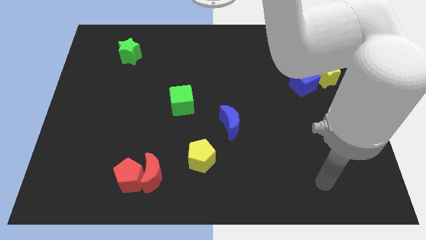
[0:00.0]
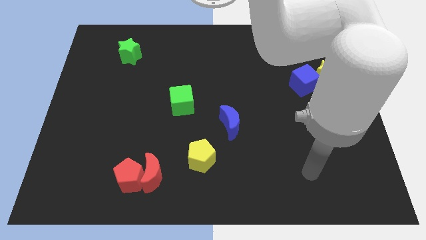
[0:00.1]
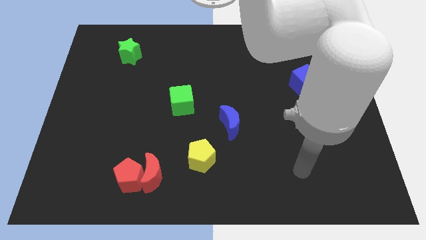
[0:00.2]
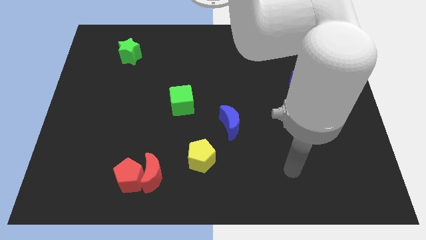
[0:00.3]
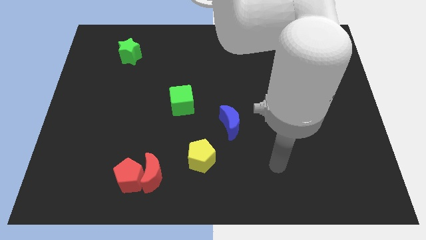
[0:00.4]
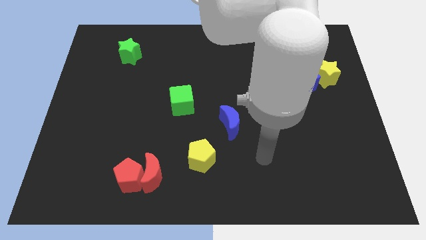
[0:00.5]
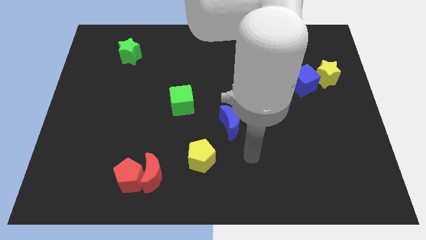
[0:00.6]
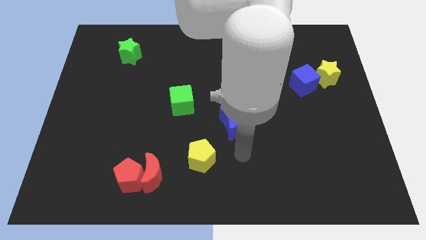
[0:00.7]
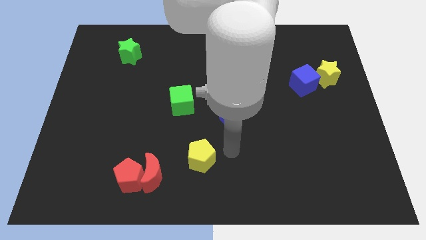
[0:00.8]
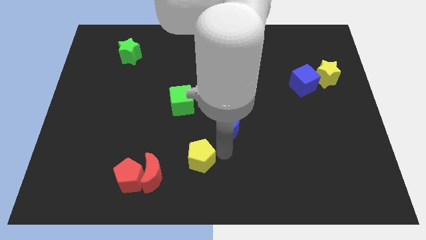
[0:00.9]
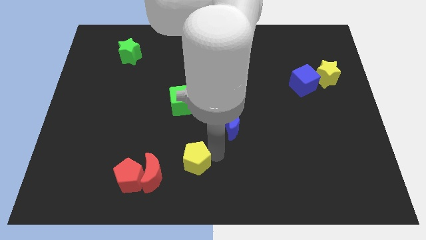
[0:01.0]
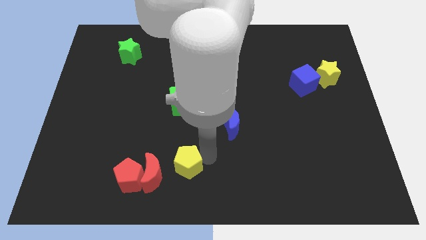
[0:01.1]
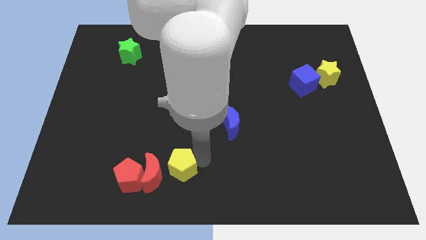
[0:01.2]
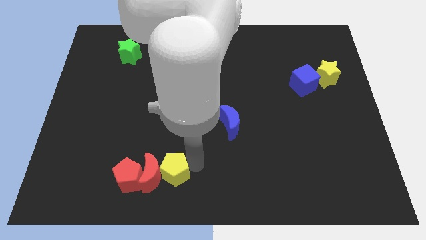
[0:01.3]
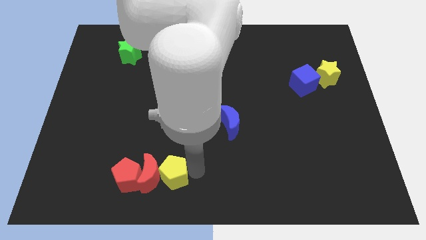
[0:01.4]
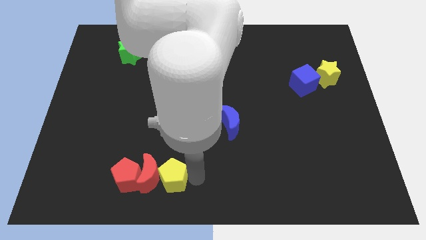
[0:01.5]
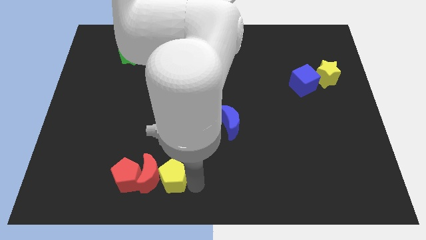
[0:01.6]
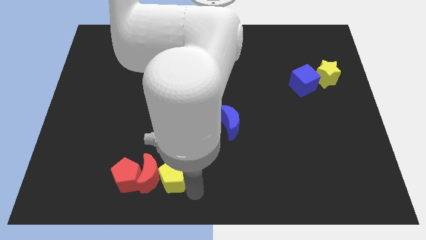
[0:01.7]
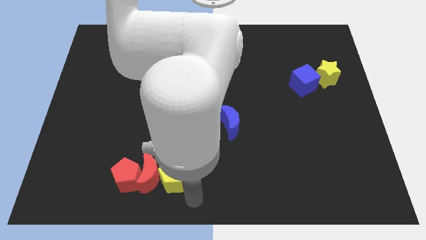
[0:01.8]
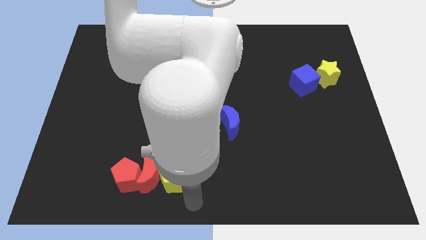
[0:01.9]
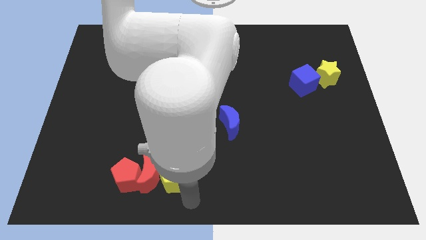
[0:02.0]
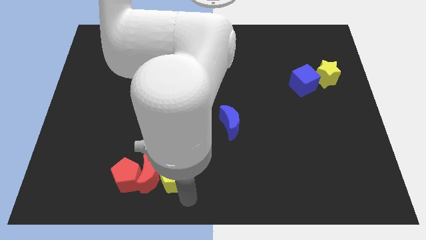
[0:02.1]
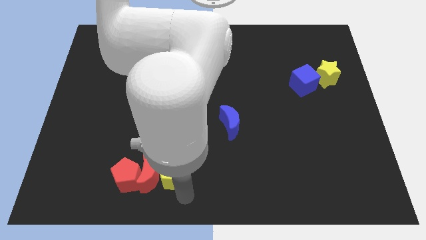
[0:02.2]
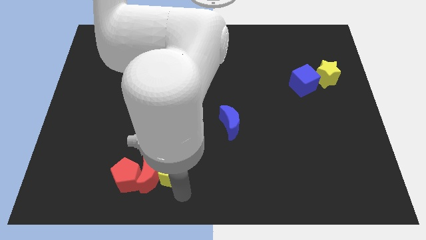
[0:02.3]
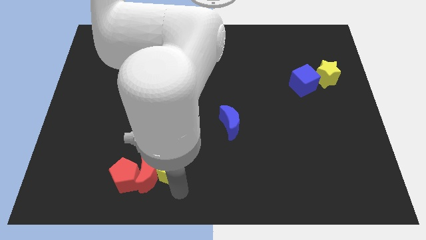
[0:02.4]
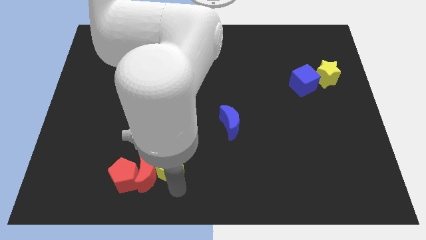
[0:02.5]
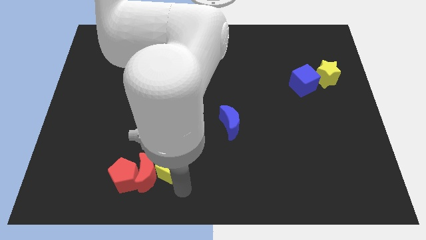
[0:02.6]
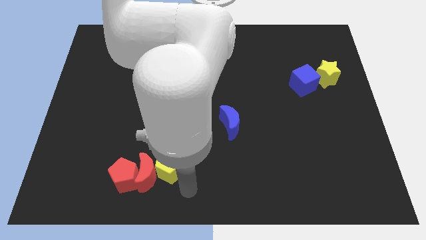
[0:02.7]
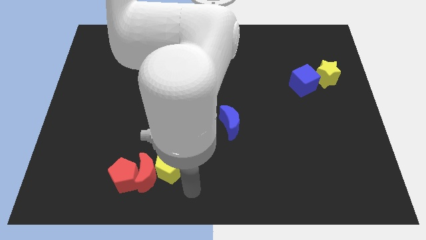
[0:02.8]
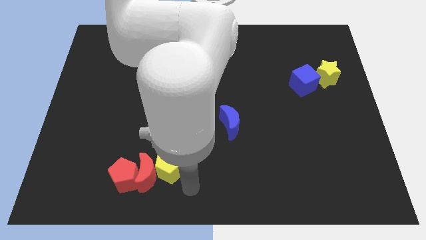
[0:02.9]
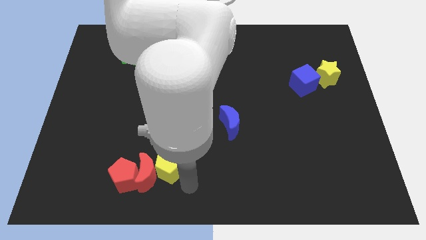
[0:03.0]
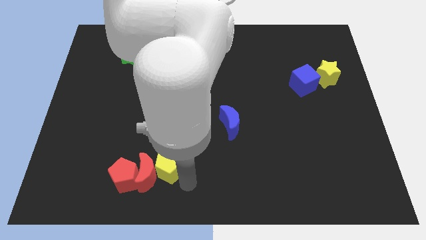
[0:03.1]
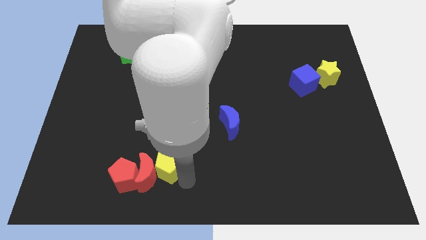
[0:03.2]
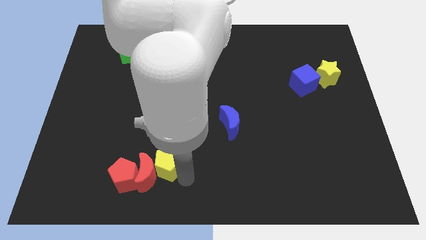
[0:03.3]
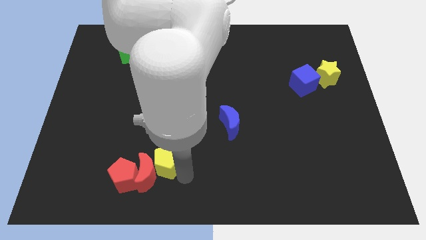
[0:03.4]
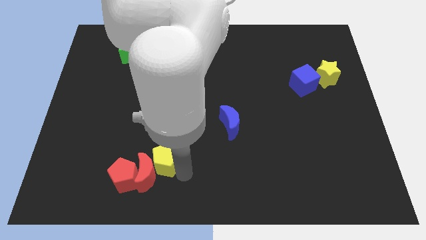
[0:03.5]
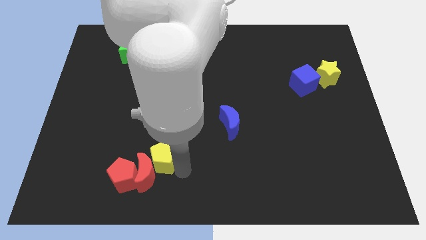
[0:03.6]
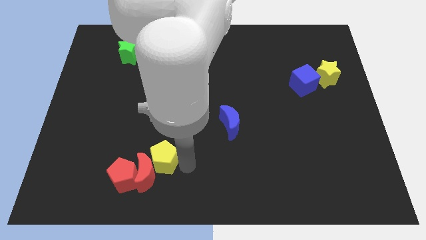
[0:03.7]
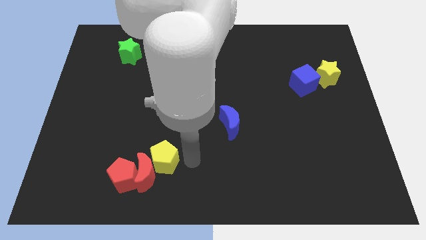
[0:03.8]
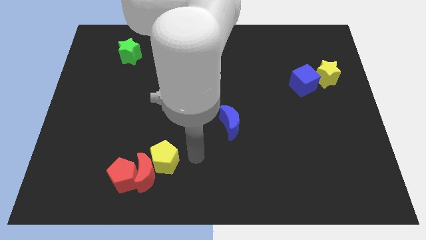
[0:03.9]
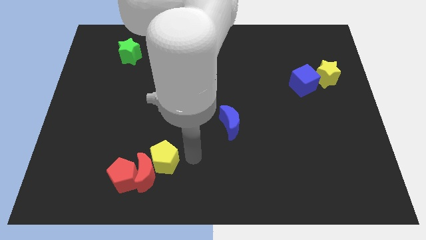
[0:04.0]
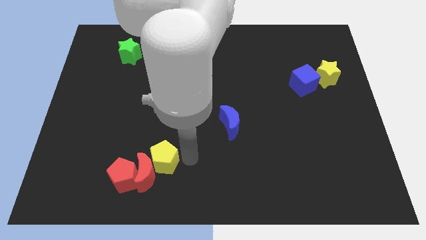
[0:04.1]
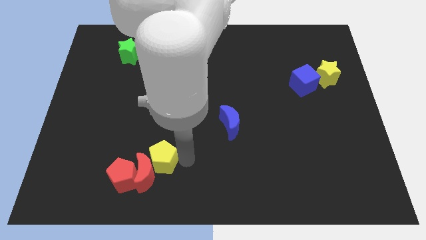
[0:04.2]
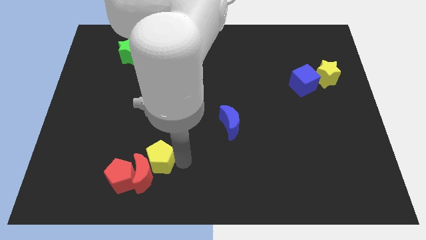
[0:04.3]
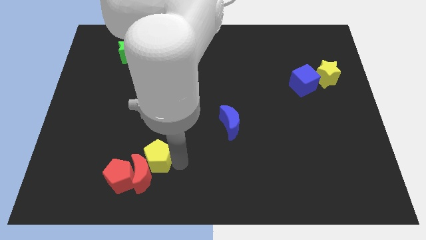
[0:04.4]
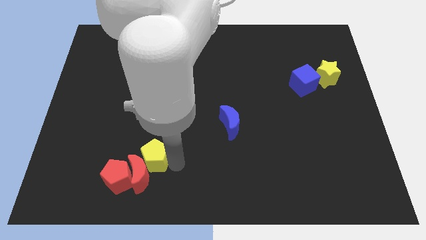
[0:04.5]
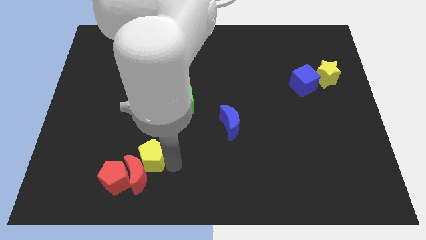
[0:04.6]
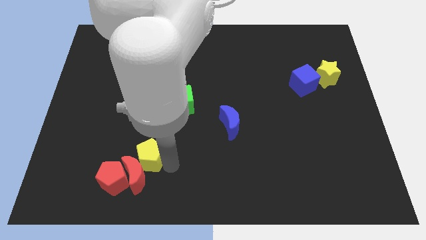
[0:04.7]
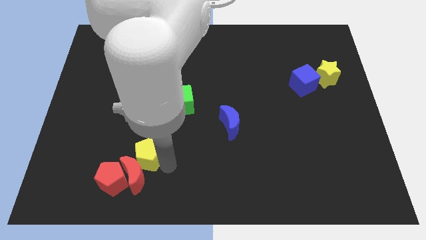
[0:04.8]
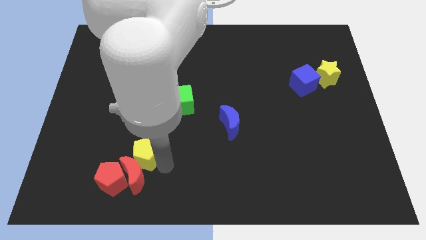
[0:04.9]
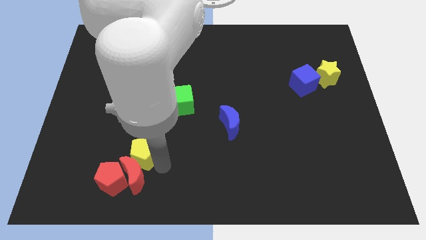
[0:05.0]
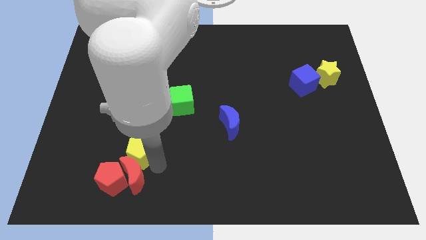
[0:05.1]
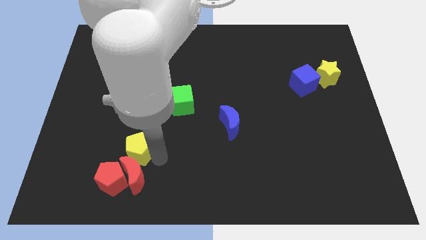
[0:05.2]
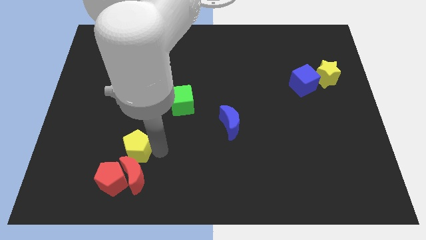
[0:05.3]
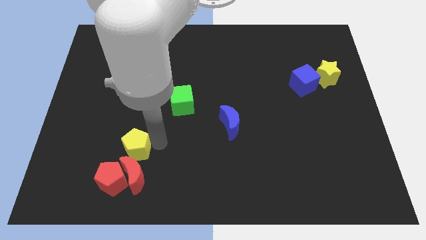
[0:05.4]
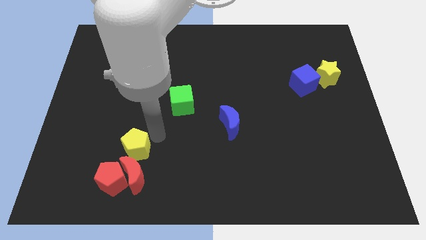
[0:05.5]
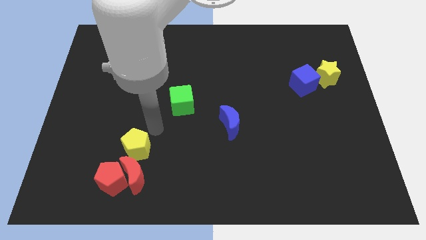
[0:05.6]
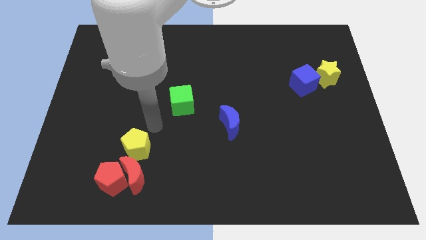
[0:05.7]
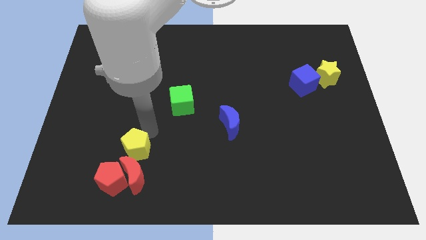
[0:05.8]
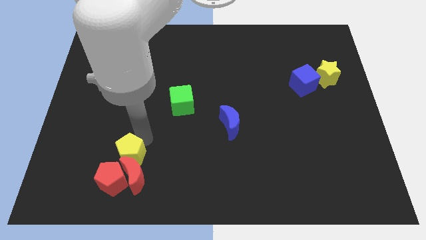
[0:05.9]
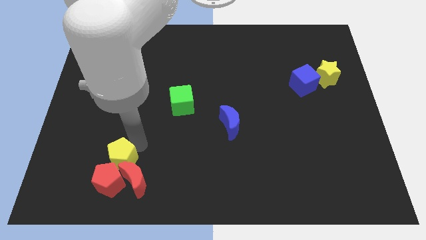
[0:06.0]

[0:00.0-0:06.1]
slide the yellow pentagon close to the red pentagon

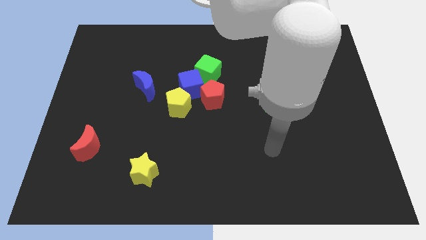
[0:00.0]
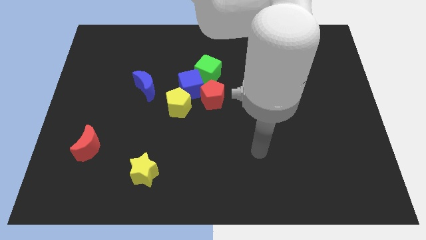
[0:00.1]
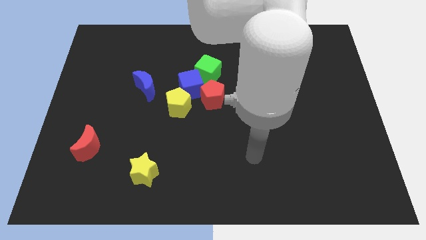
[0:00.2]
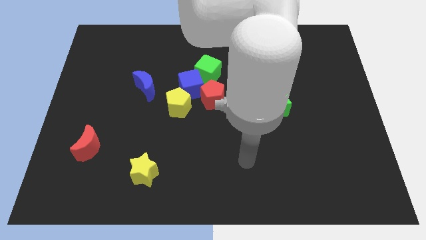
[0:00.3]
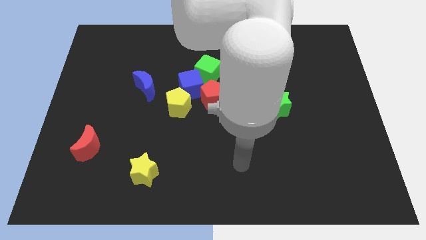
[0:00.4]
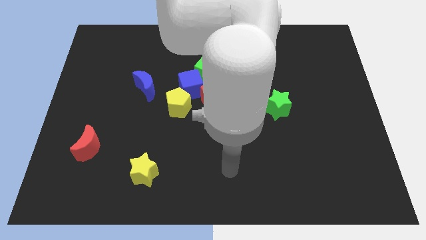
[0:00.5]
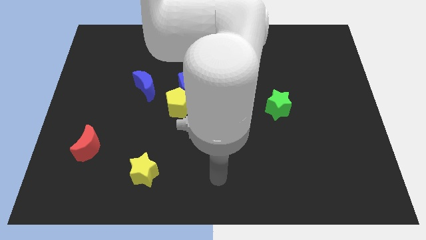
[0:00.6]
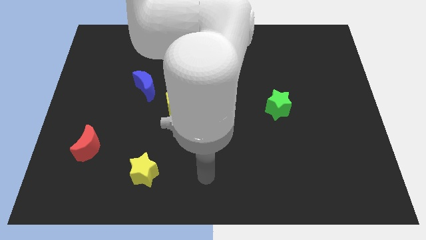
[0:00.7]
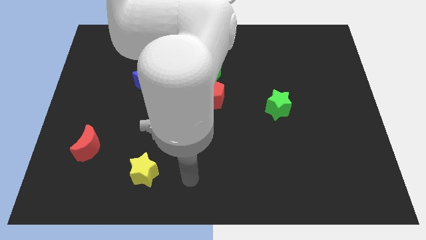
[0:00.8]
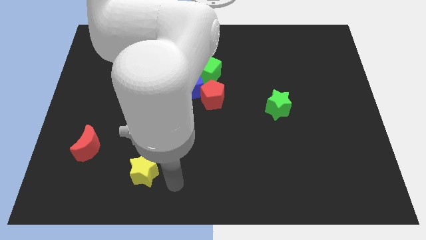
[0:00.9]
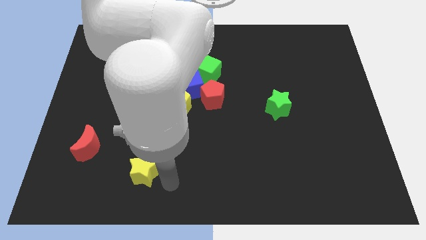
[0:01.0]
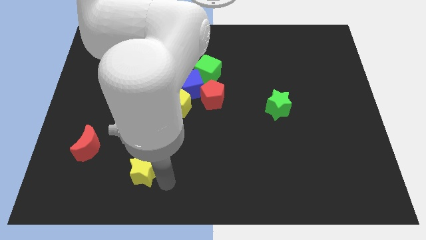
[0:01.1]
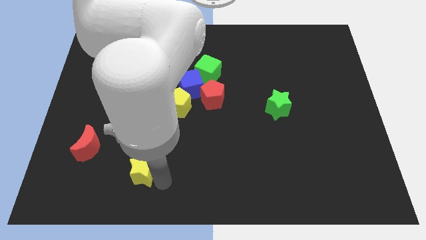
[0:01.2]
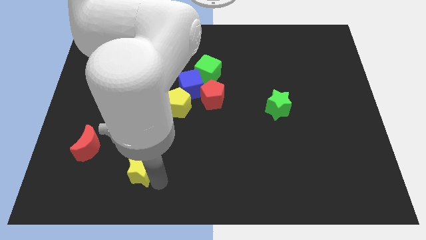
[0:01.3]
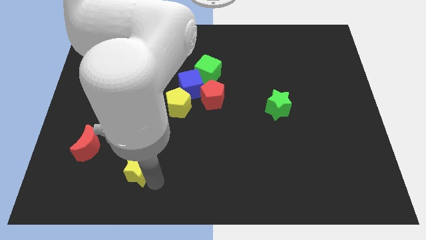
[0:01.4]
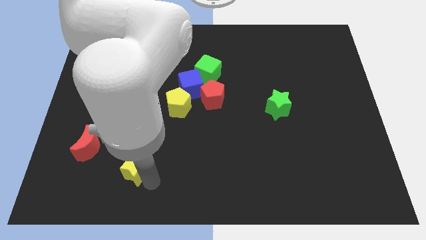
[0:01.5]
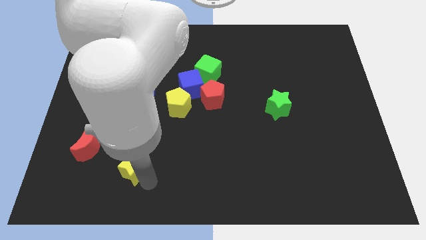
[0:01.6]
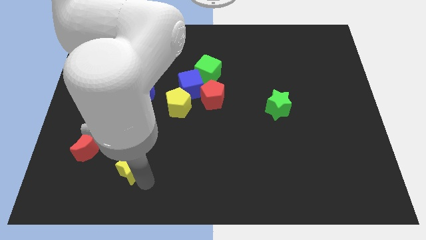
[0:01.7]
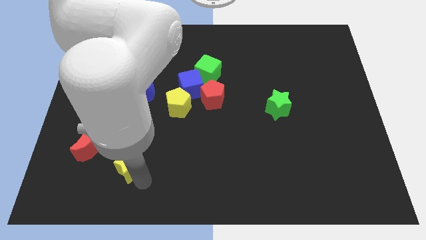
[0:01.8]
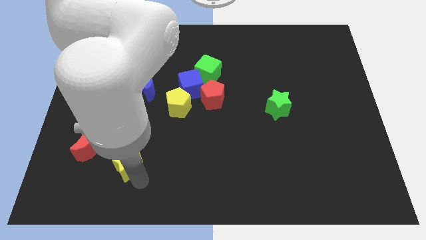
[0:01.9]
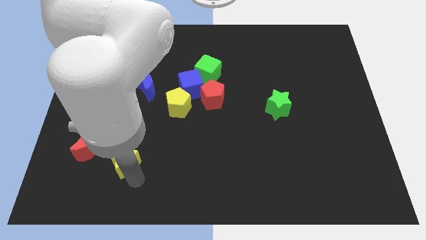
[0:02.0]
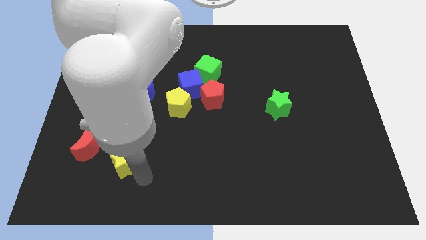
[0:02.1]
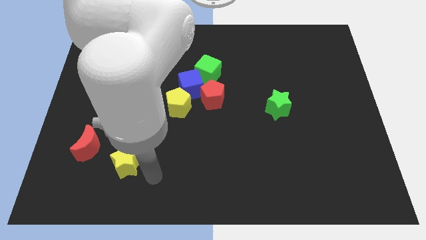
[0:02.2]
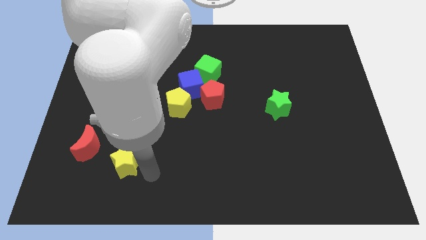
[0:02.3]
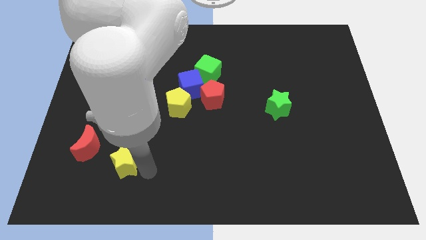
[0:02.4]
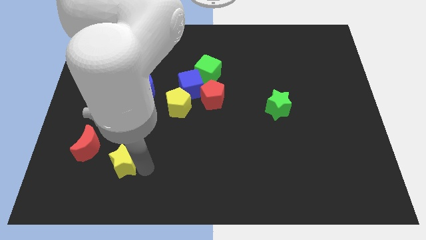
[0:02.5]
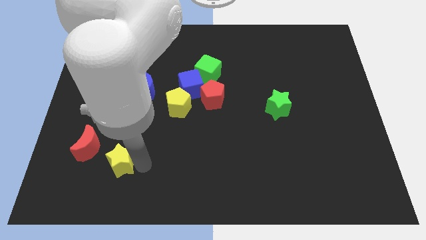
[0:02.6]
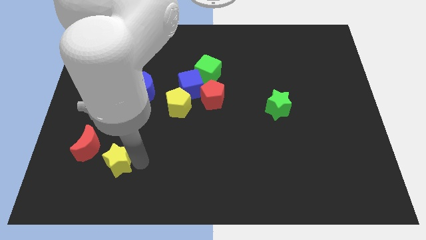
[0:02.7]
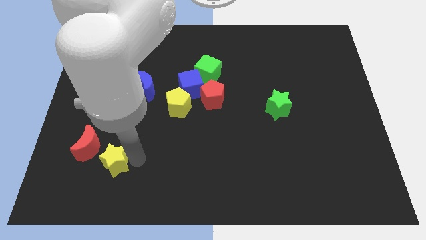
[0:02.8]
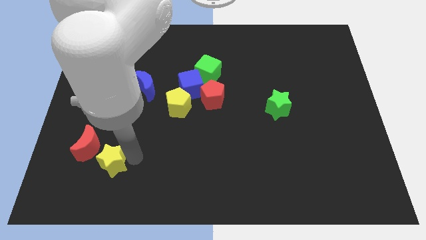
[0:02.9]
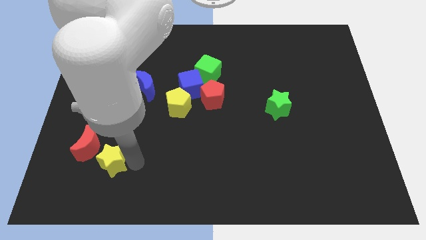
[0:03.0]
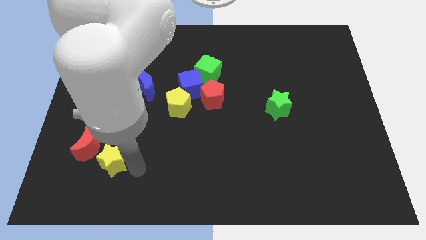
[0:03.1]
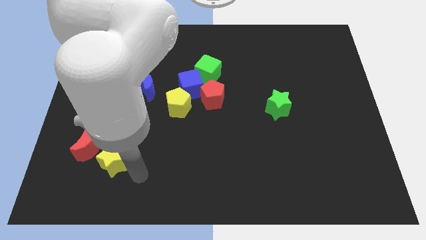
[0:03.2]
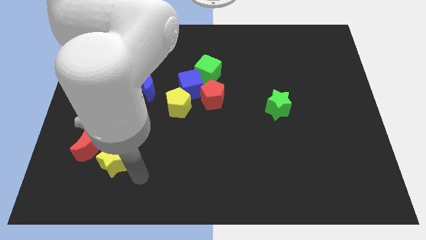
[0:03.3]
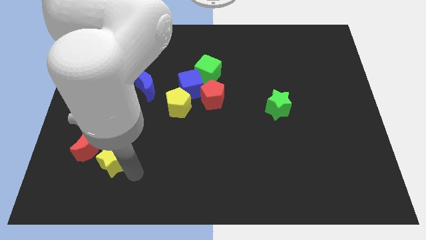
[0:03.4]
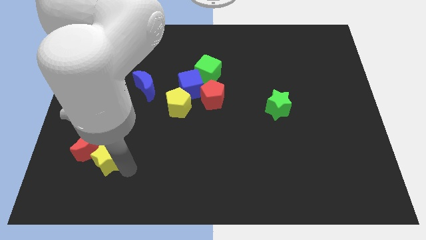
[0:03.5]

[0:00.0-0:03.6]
move the yellow star to the red moon
